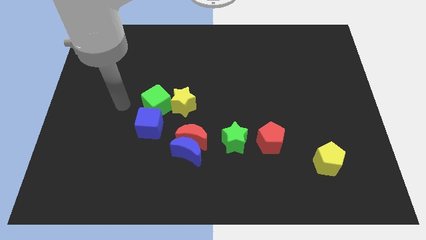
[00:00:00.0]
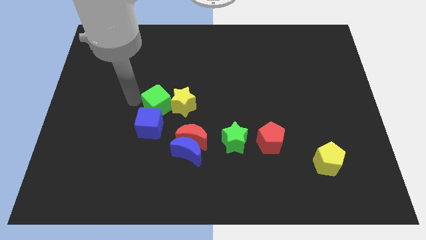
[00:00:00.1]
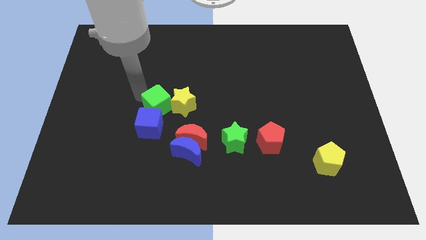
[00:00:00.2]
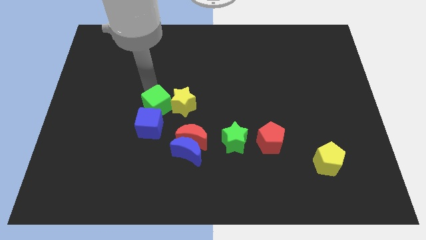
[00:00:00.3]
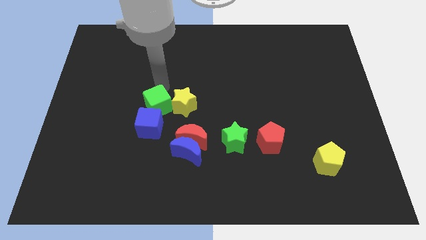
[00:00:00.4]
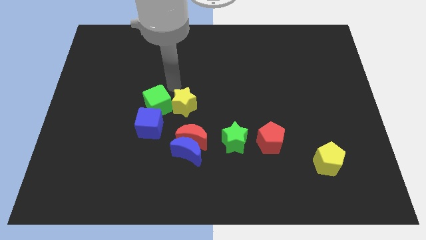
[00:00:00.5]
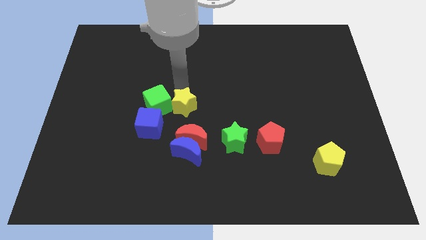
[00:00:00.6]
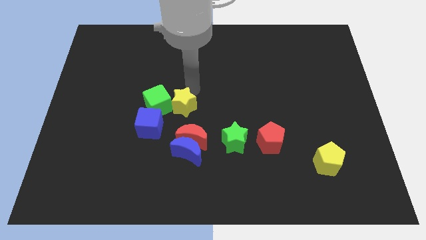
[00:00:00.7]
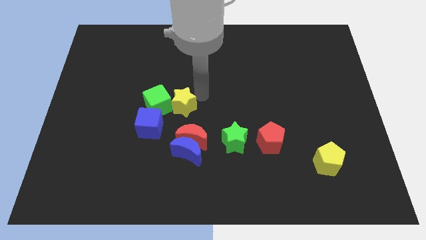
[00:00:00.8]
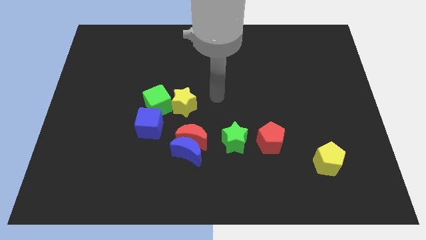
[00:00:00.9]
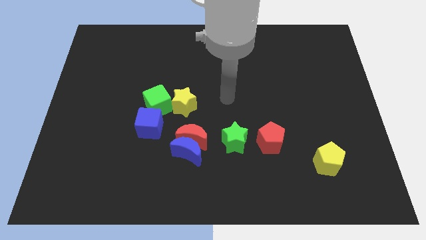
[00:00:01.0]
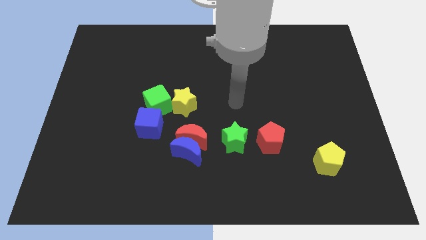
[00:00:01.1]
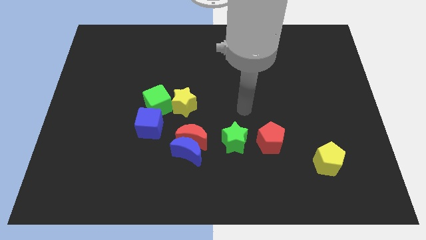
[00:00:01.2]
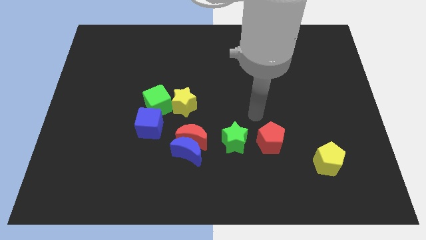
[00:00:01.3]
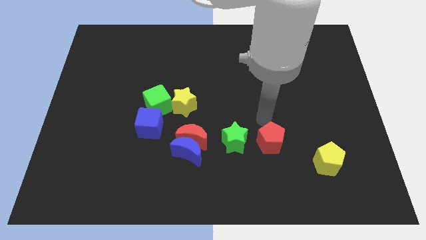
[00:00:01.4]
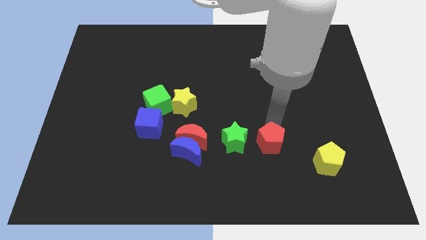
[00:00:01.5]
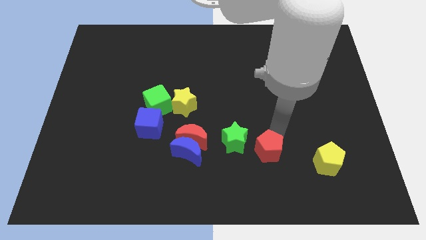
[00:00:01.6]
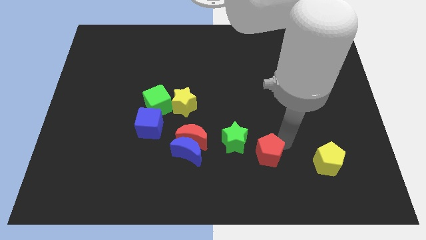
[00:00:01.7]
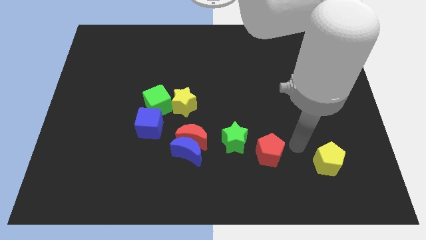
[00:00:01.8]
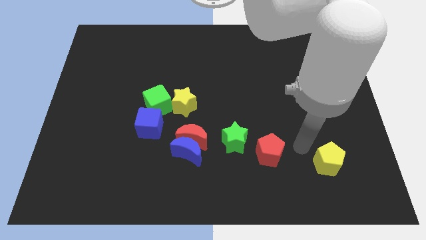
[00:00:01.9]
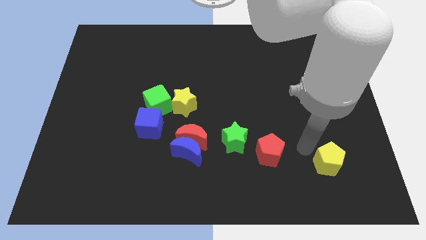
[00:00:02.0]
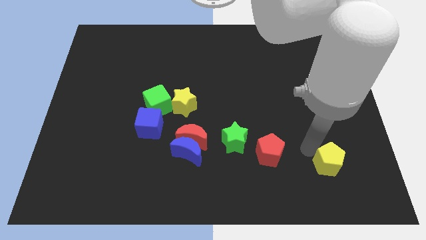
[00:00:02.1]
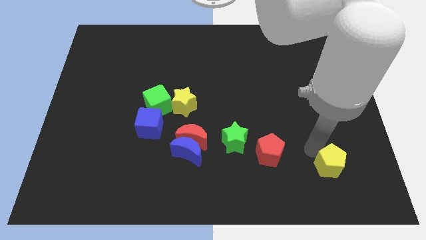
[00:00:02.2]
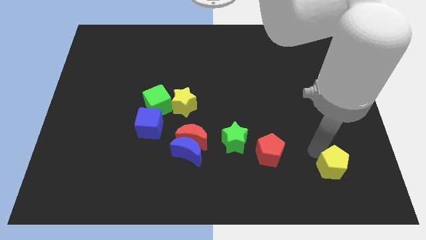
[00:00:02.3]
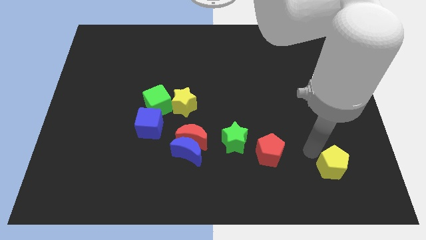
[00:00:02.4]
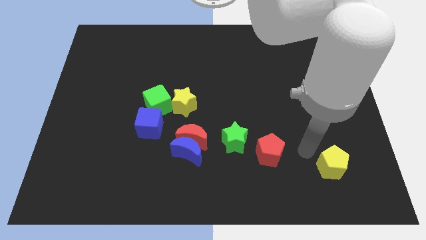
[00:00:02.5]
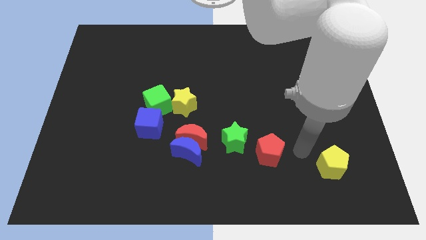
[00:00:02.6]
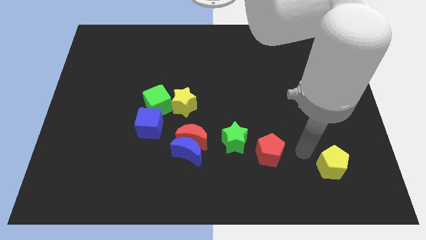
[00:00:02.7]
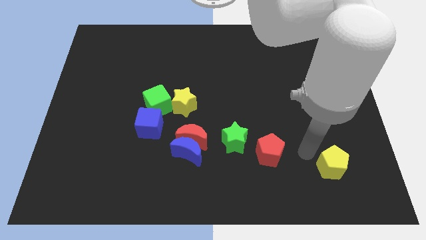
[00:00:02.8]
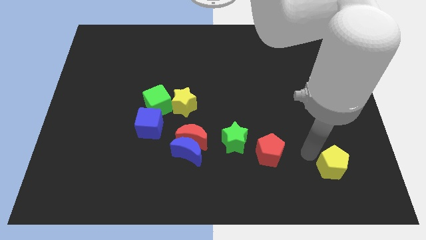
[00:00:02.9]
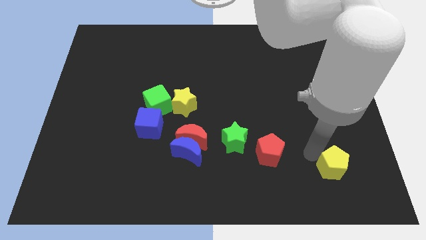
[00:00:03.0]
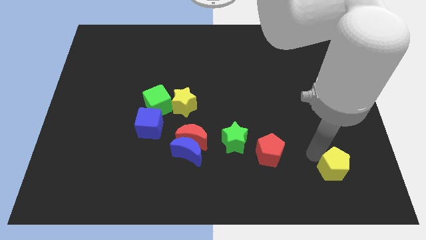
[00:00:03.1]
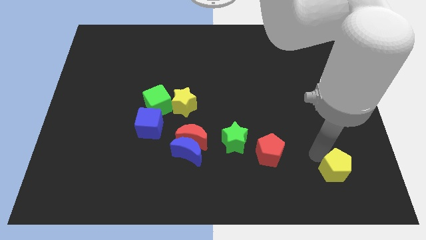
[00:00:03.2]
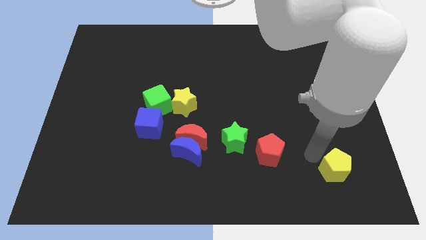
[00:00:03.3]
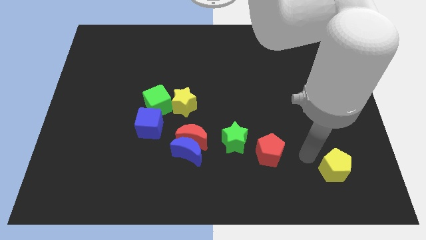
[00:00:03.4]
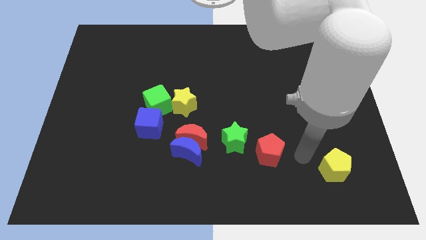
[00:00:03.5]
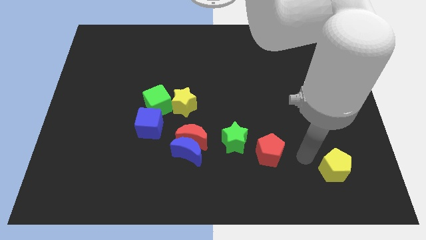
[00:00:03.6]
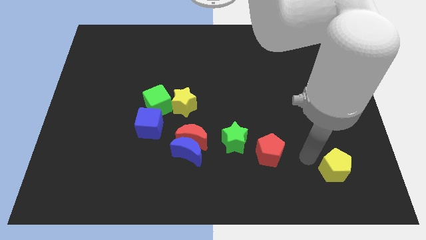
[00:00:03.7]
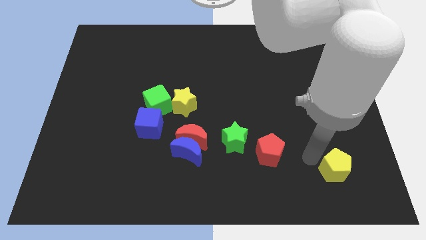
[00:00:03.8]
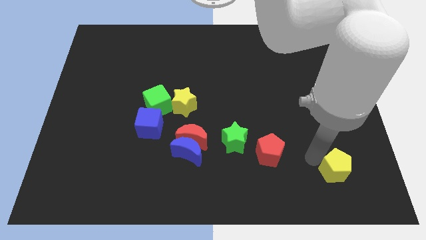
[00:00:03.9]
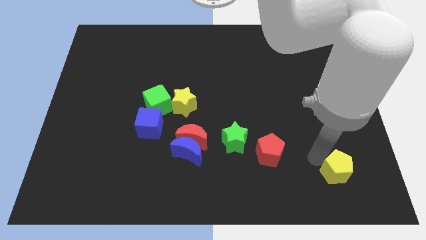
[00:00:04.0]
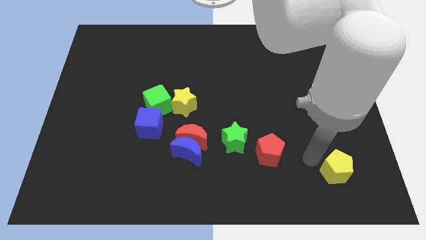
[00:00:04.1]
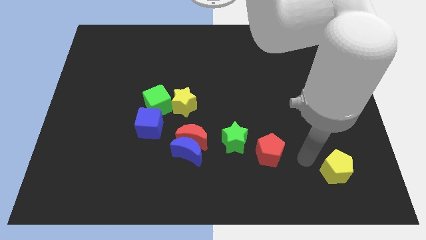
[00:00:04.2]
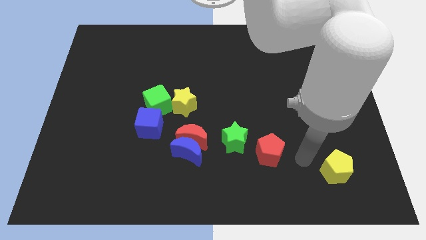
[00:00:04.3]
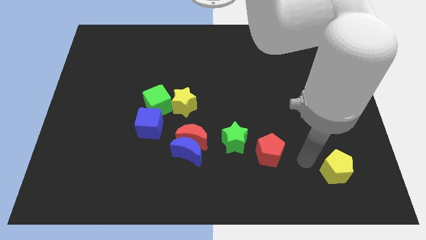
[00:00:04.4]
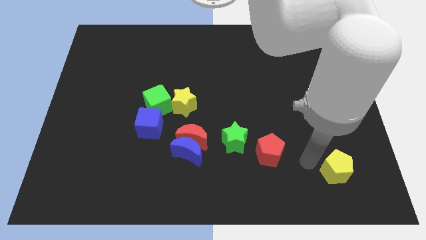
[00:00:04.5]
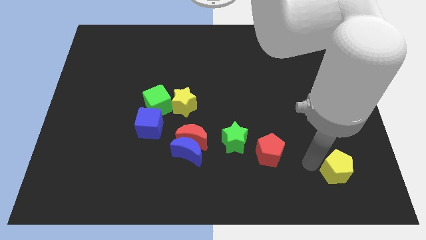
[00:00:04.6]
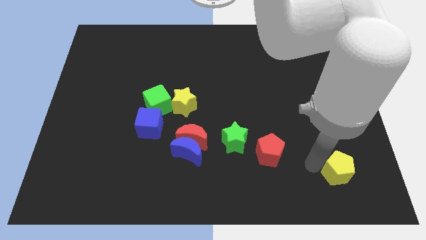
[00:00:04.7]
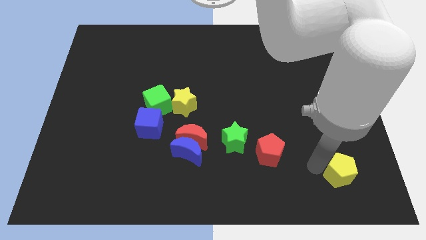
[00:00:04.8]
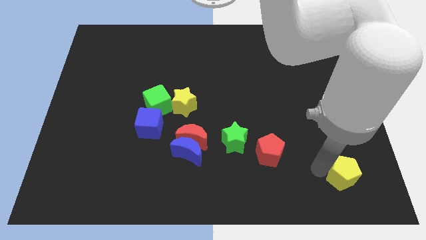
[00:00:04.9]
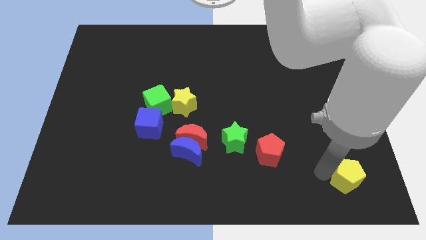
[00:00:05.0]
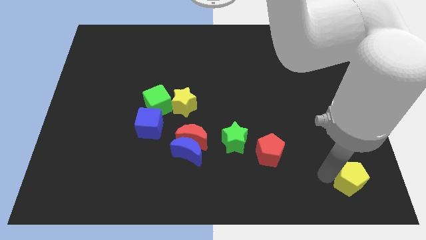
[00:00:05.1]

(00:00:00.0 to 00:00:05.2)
move the yellow pentagon to the bottom right corner

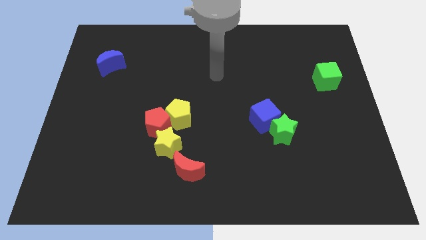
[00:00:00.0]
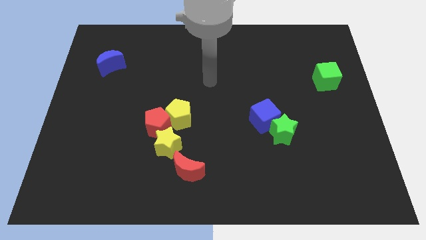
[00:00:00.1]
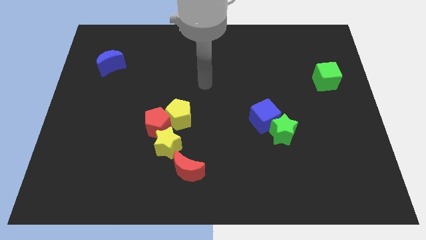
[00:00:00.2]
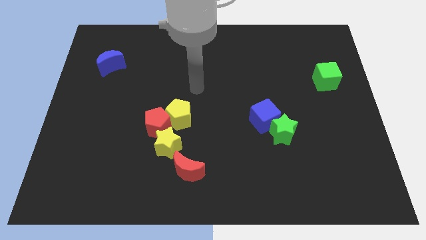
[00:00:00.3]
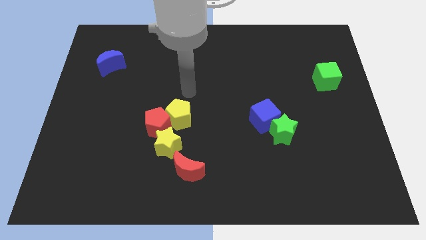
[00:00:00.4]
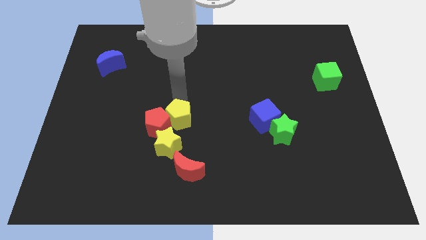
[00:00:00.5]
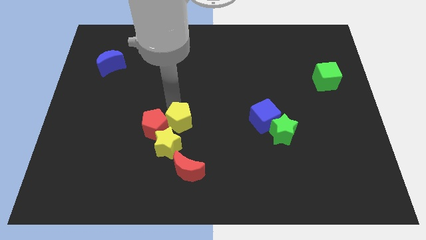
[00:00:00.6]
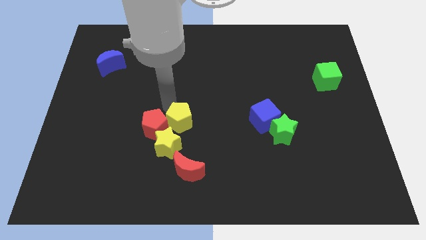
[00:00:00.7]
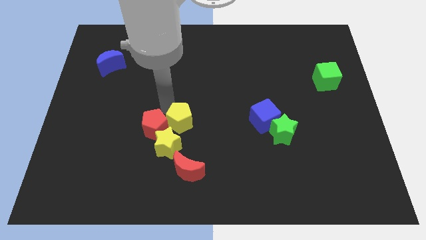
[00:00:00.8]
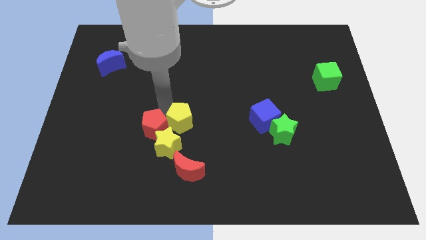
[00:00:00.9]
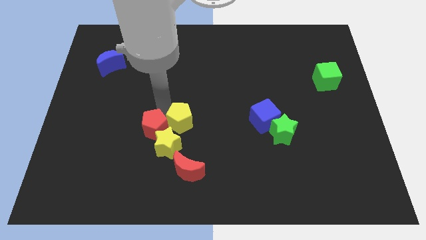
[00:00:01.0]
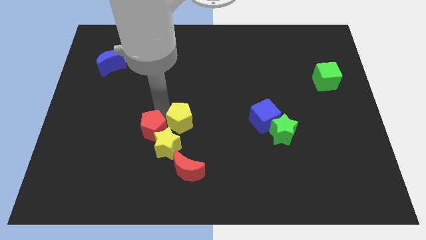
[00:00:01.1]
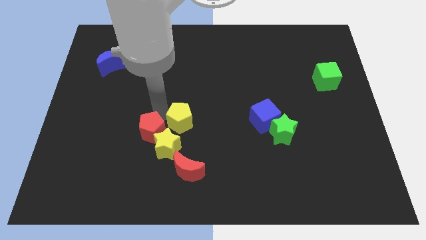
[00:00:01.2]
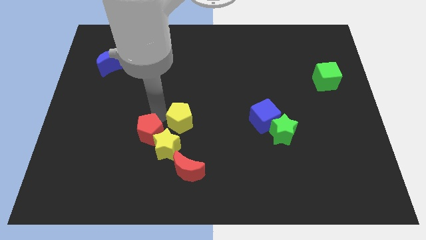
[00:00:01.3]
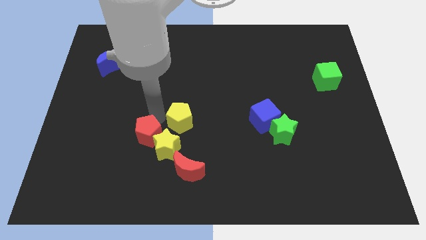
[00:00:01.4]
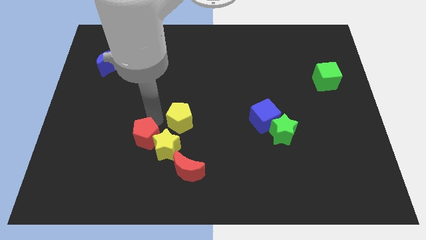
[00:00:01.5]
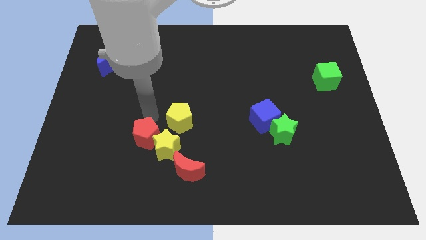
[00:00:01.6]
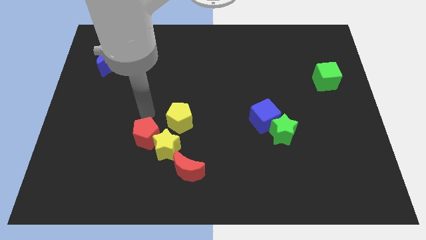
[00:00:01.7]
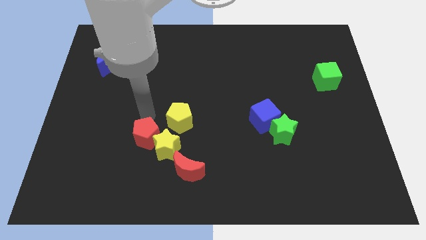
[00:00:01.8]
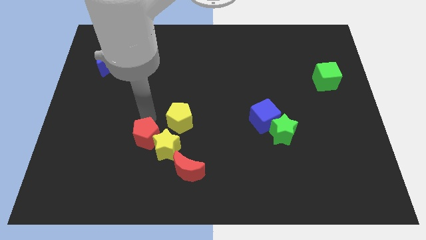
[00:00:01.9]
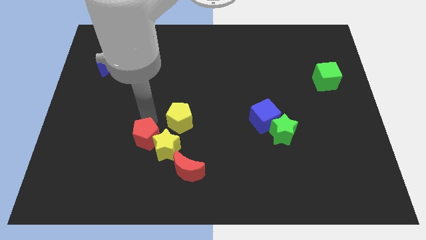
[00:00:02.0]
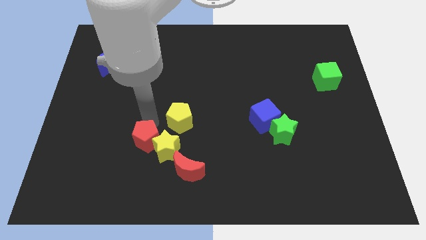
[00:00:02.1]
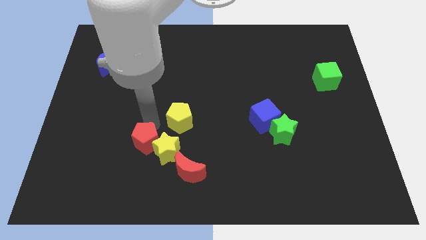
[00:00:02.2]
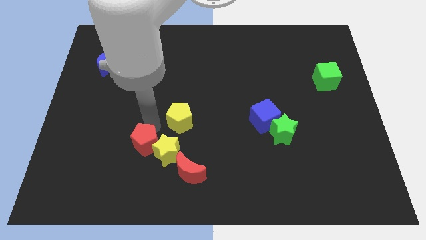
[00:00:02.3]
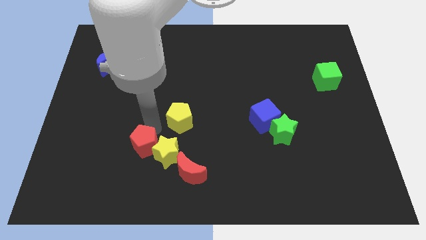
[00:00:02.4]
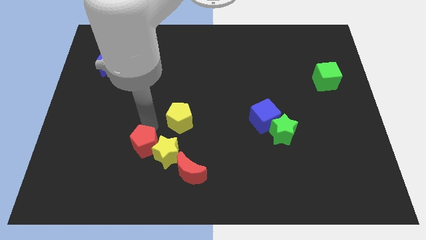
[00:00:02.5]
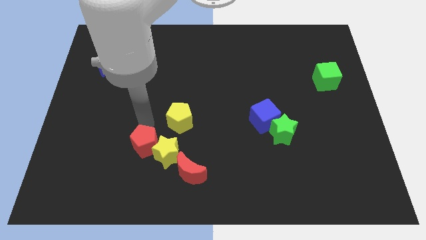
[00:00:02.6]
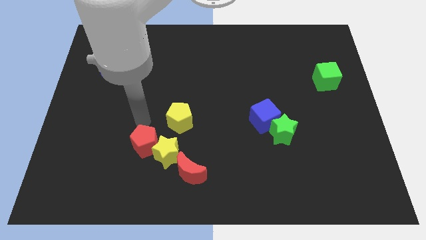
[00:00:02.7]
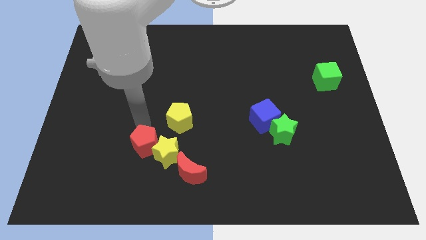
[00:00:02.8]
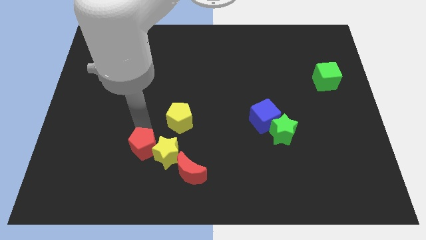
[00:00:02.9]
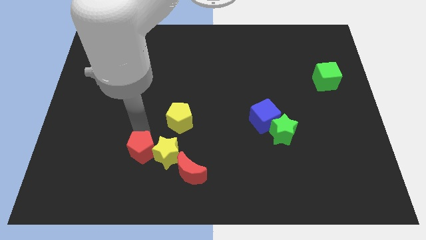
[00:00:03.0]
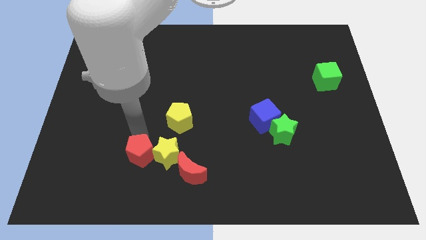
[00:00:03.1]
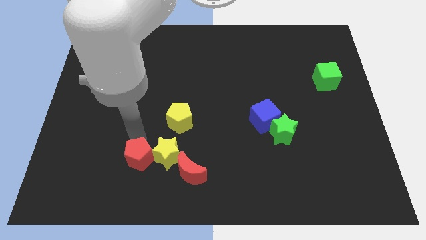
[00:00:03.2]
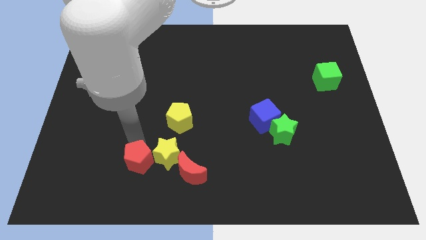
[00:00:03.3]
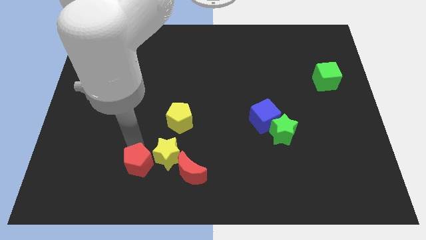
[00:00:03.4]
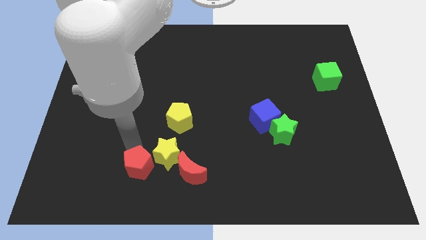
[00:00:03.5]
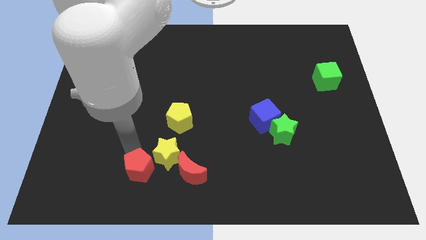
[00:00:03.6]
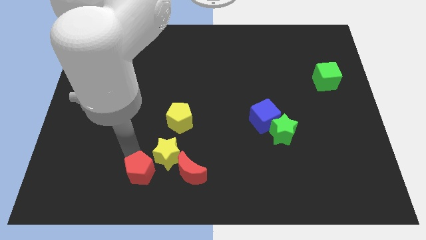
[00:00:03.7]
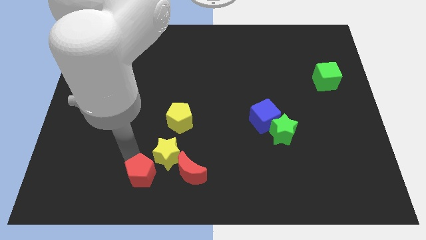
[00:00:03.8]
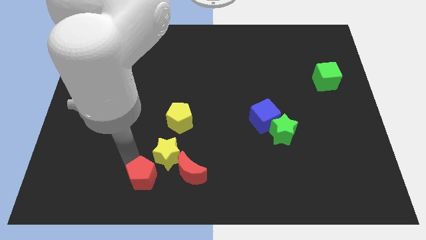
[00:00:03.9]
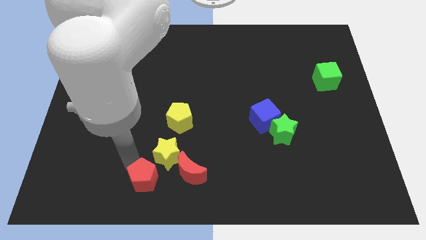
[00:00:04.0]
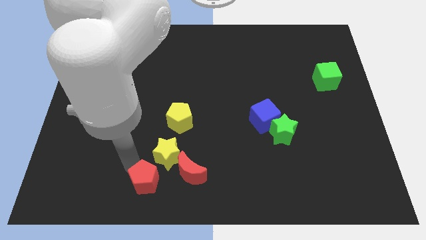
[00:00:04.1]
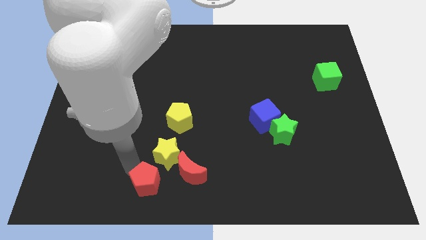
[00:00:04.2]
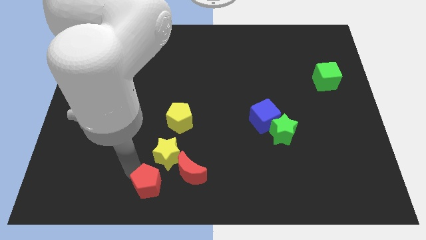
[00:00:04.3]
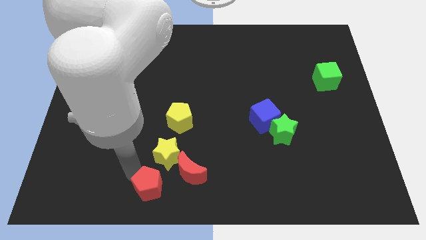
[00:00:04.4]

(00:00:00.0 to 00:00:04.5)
move the red pentagon to the bottom side
